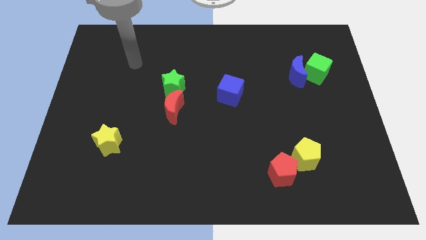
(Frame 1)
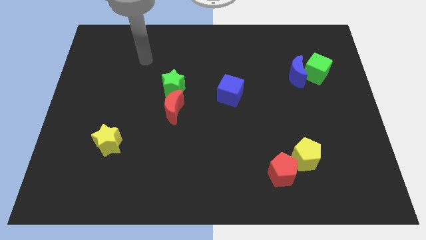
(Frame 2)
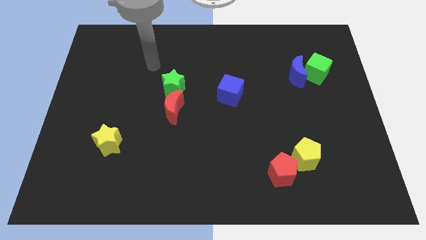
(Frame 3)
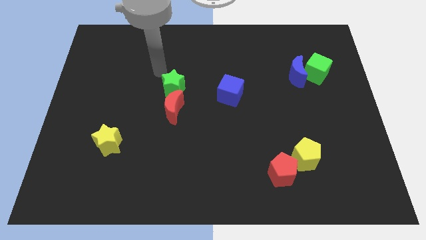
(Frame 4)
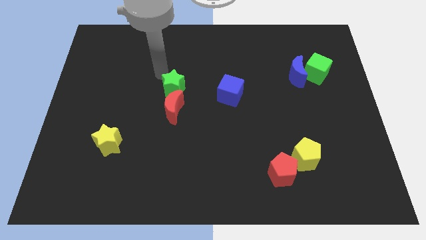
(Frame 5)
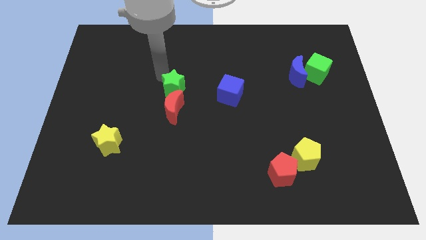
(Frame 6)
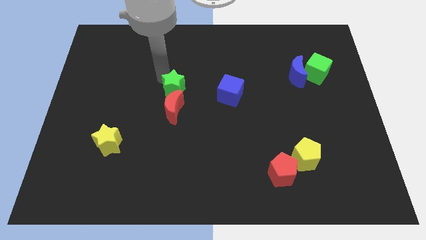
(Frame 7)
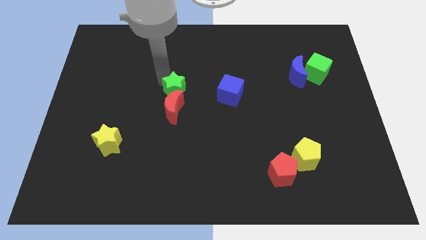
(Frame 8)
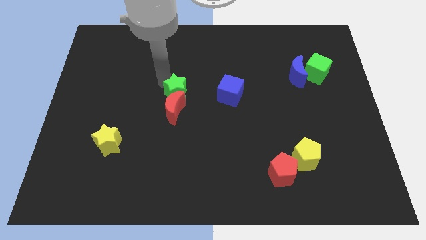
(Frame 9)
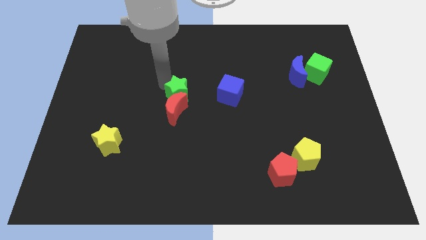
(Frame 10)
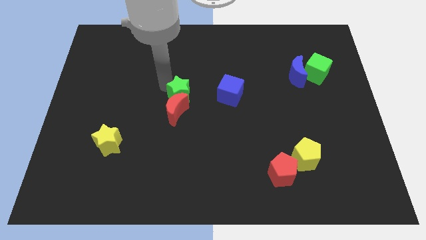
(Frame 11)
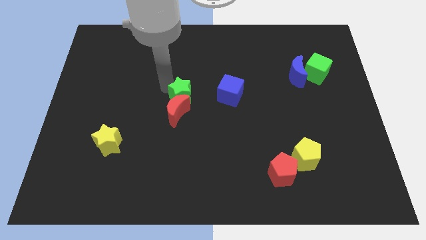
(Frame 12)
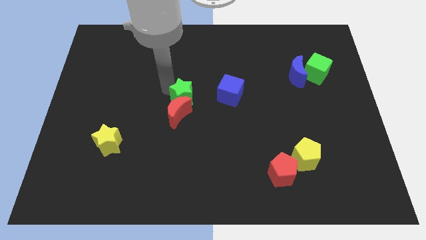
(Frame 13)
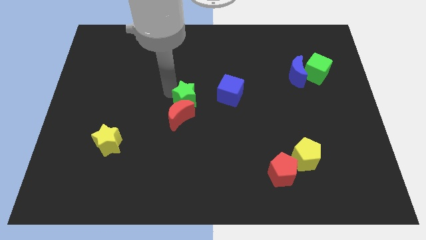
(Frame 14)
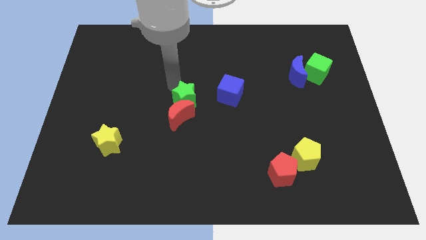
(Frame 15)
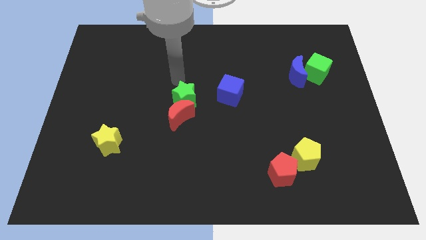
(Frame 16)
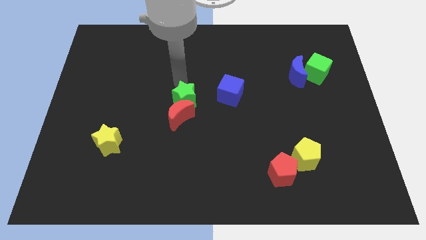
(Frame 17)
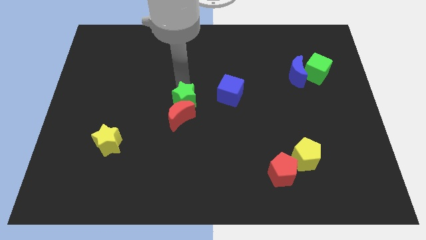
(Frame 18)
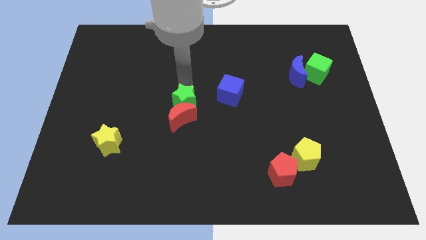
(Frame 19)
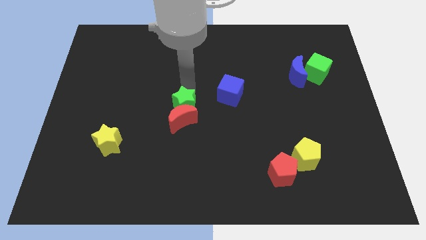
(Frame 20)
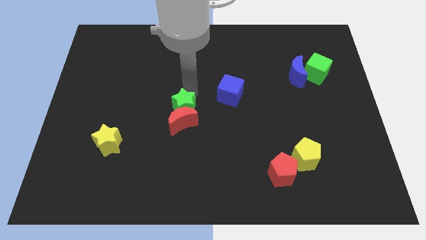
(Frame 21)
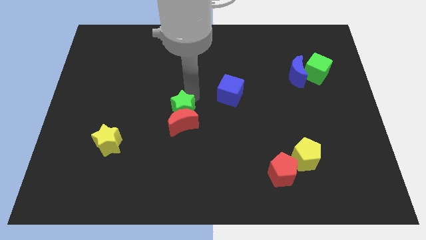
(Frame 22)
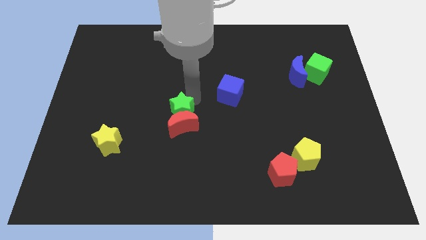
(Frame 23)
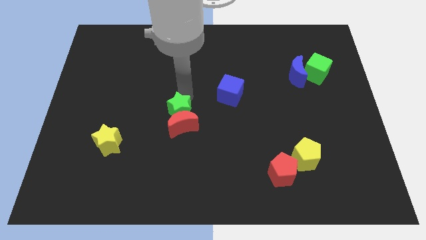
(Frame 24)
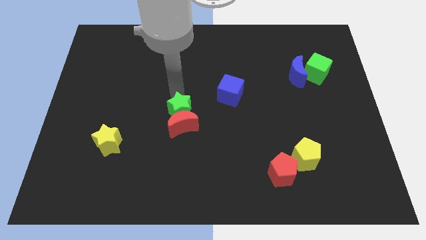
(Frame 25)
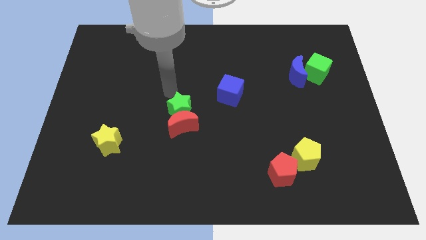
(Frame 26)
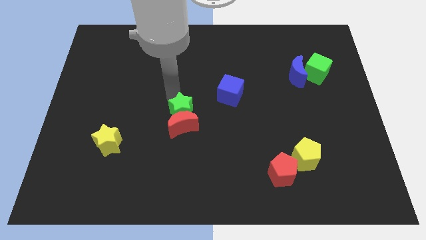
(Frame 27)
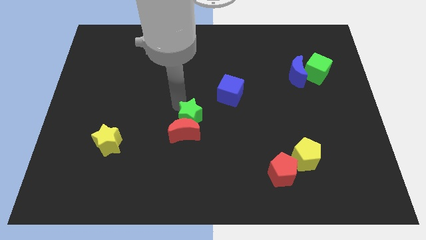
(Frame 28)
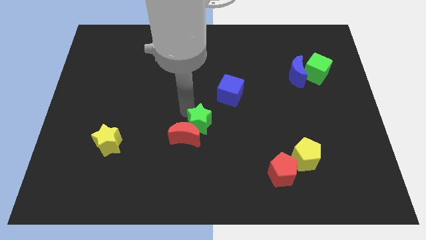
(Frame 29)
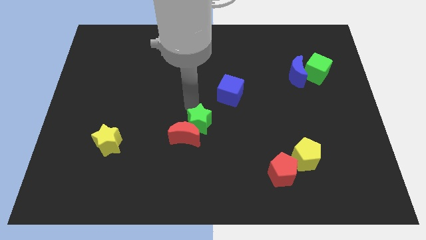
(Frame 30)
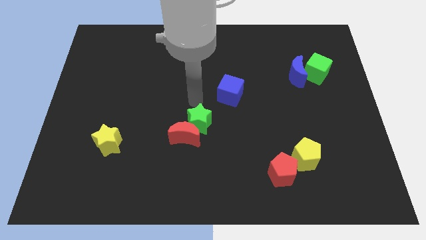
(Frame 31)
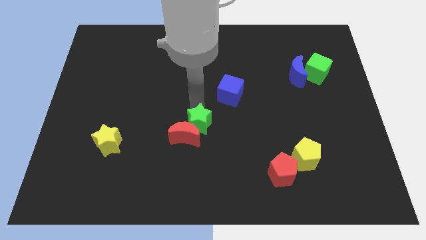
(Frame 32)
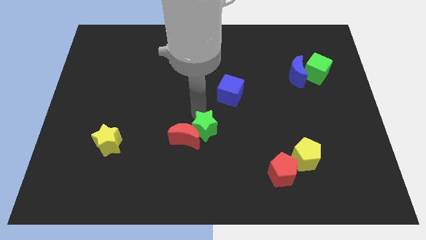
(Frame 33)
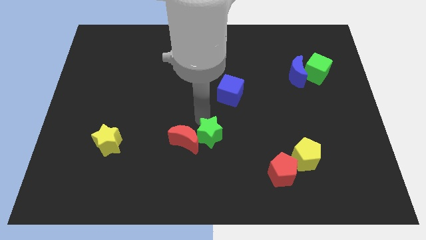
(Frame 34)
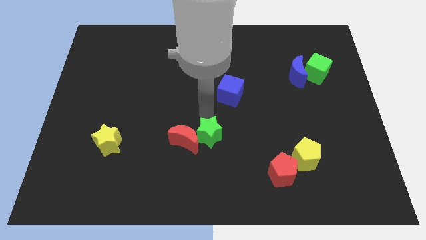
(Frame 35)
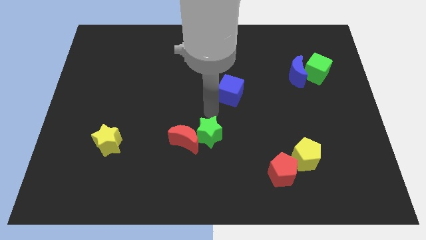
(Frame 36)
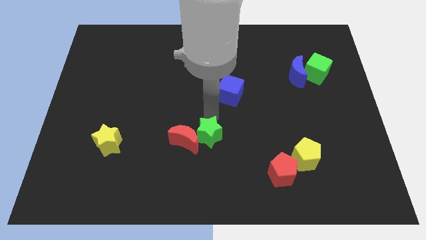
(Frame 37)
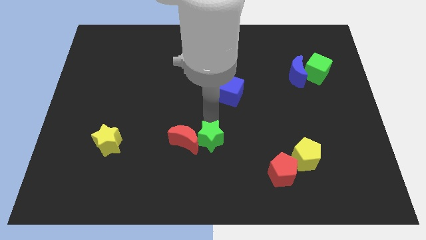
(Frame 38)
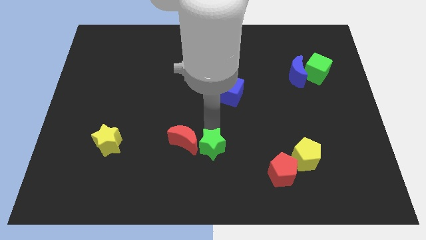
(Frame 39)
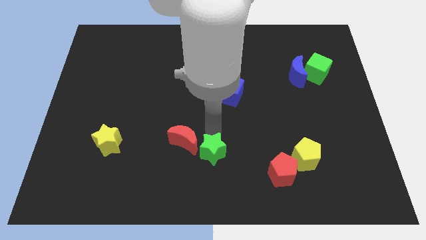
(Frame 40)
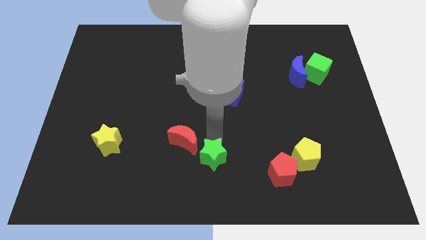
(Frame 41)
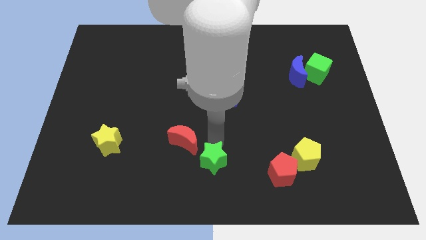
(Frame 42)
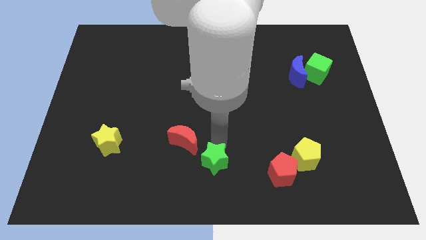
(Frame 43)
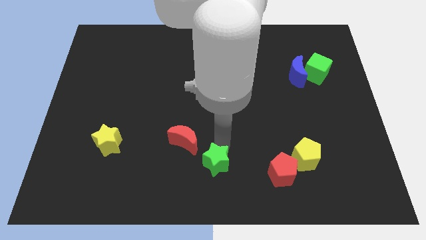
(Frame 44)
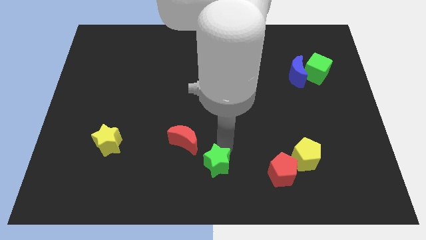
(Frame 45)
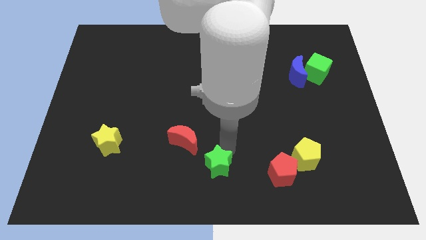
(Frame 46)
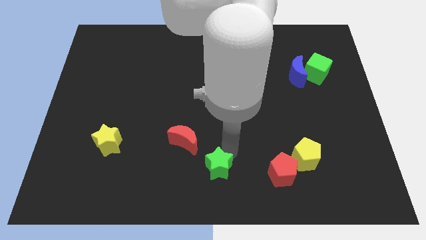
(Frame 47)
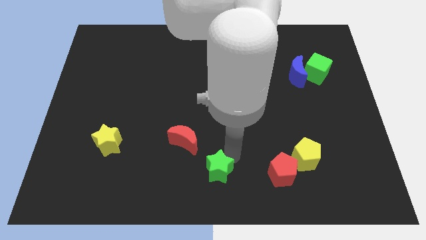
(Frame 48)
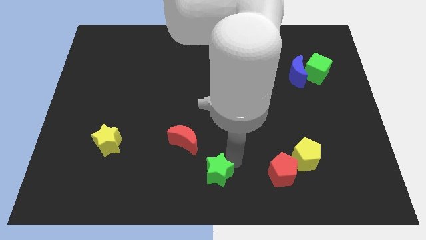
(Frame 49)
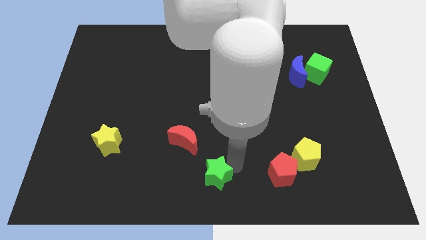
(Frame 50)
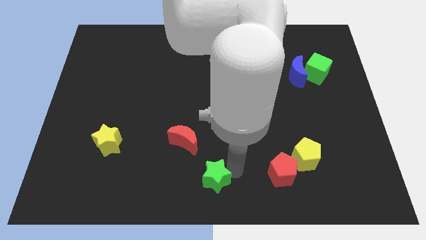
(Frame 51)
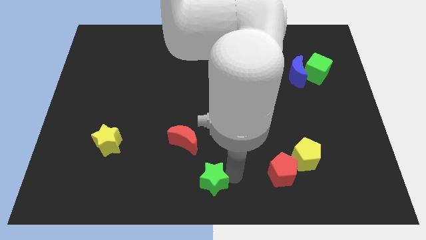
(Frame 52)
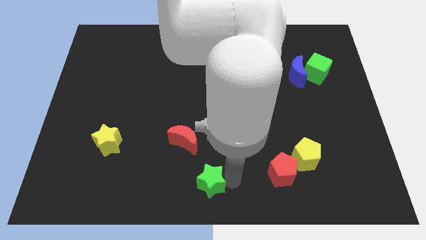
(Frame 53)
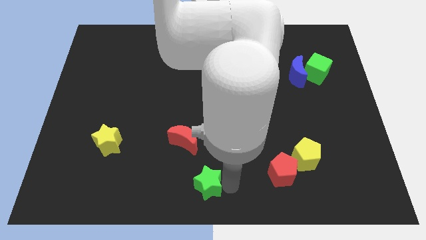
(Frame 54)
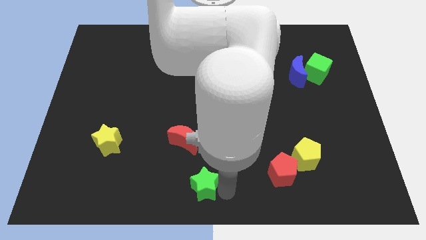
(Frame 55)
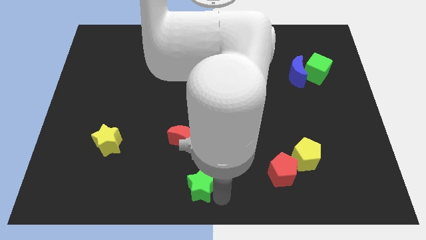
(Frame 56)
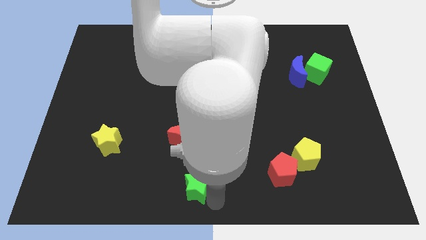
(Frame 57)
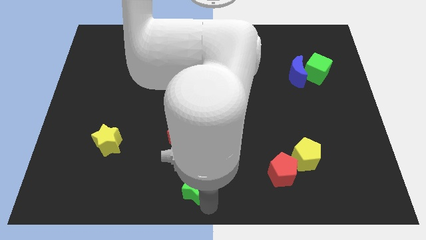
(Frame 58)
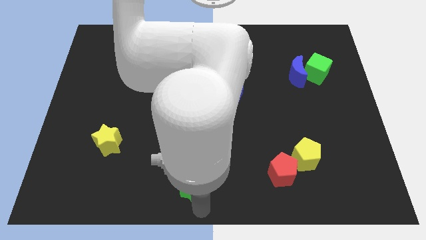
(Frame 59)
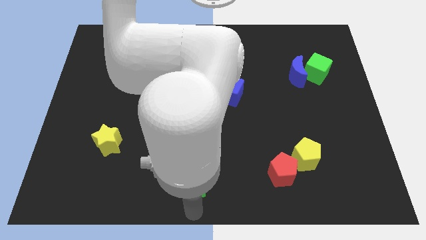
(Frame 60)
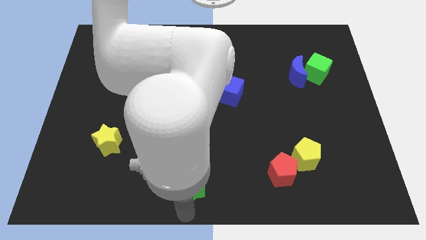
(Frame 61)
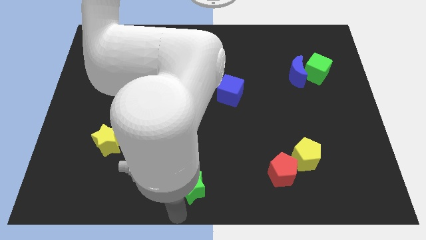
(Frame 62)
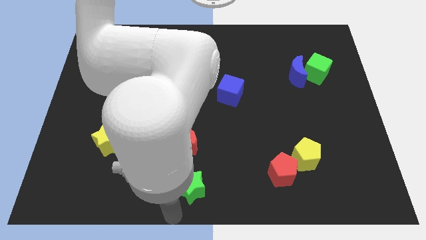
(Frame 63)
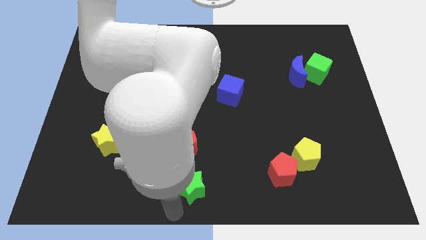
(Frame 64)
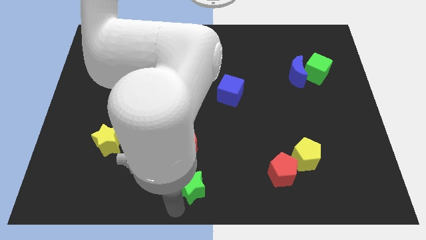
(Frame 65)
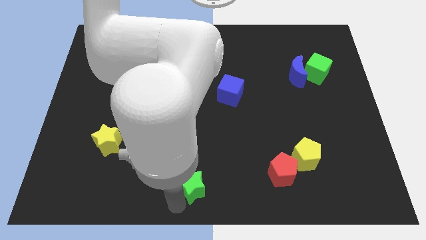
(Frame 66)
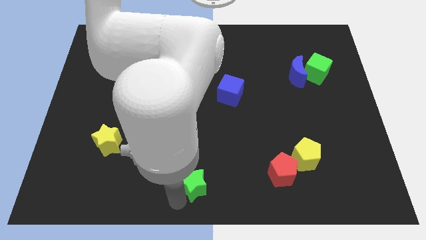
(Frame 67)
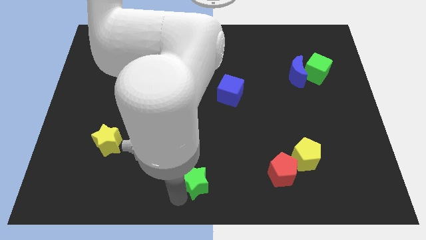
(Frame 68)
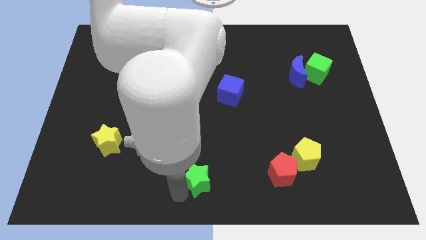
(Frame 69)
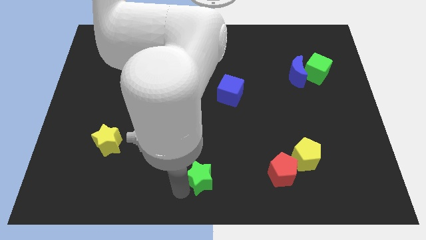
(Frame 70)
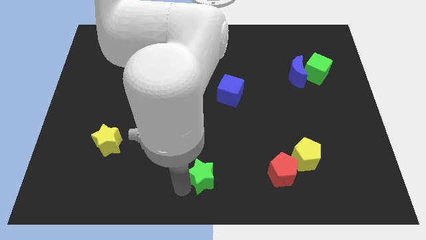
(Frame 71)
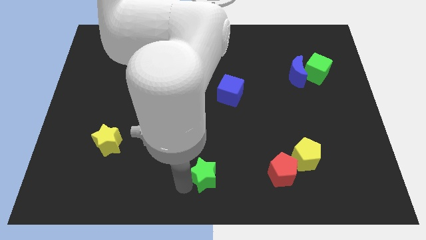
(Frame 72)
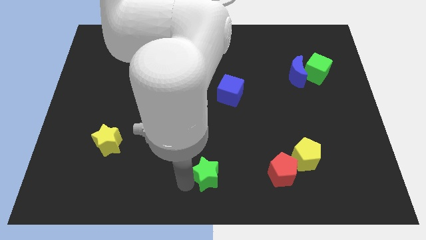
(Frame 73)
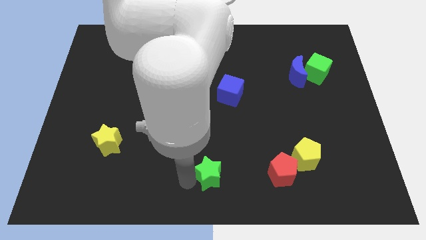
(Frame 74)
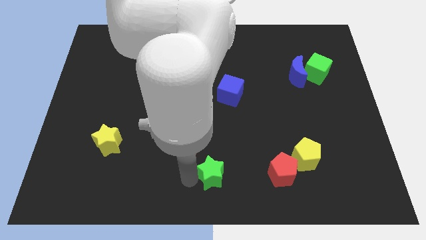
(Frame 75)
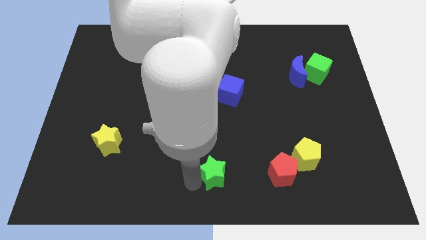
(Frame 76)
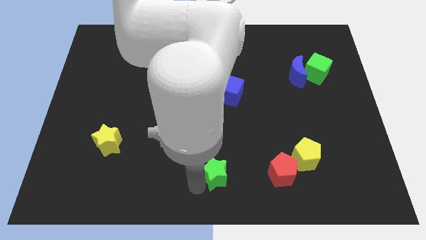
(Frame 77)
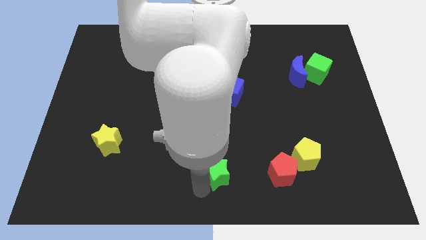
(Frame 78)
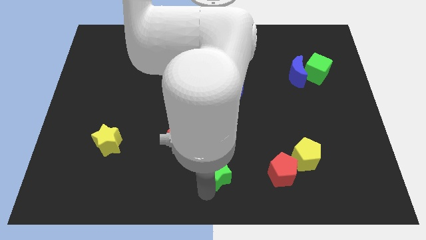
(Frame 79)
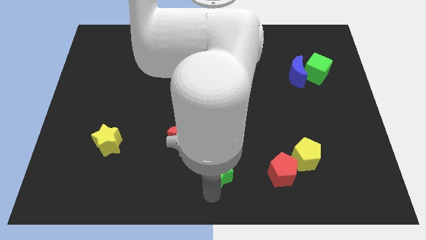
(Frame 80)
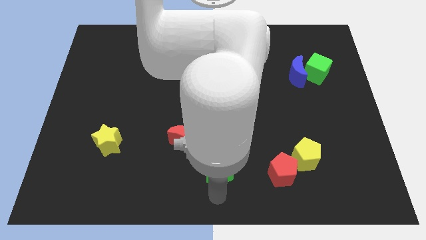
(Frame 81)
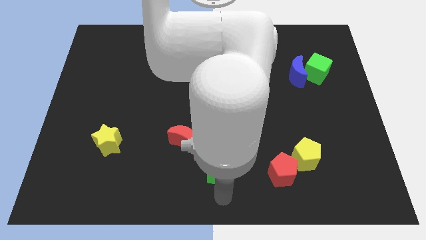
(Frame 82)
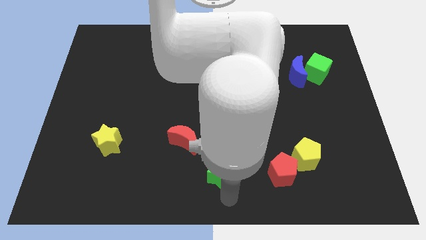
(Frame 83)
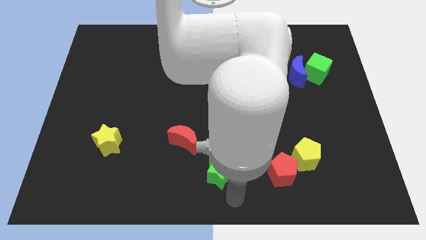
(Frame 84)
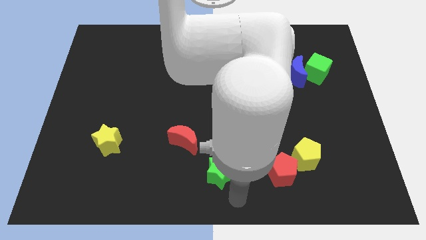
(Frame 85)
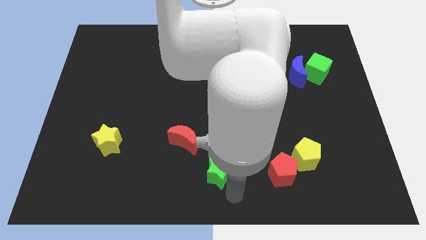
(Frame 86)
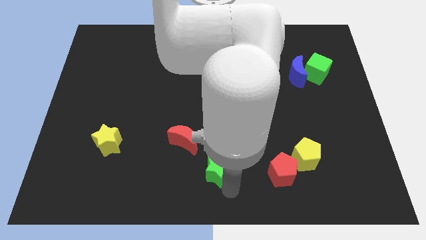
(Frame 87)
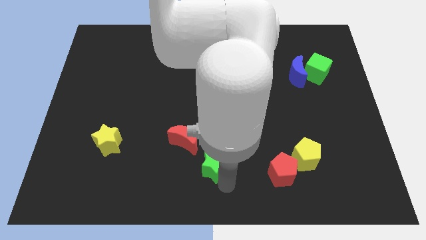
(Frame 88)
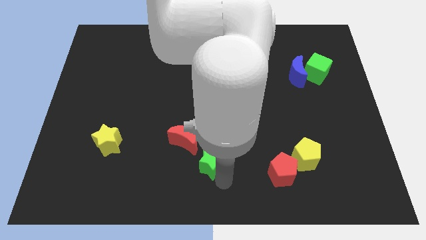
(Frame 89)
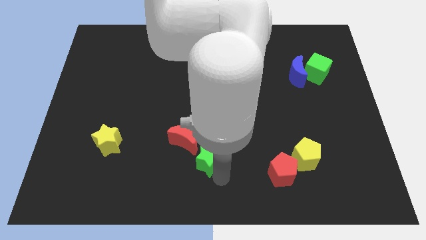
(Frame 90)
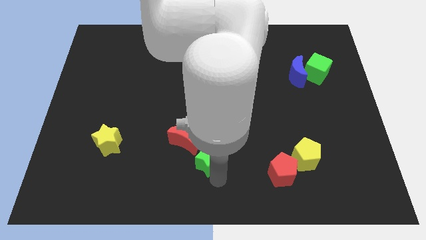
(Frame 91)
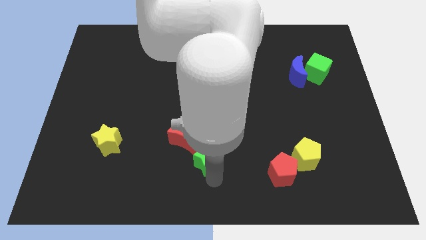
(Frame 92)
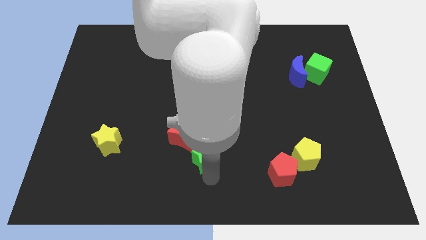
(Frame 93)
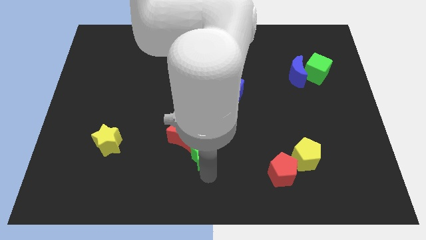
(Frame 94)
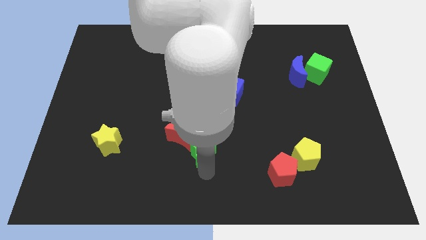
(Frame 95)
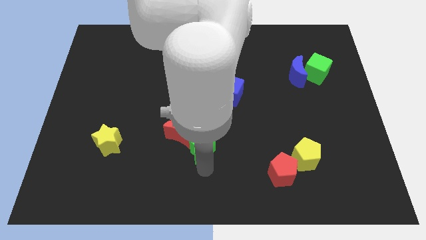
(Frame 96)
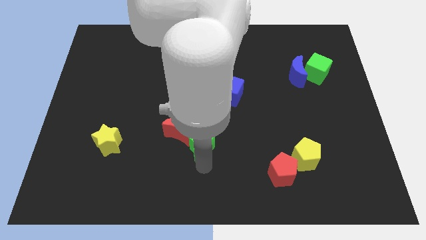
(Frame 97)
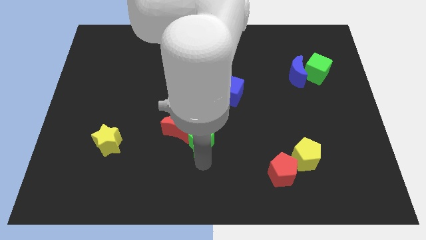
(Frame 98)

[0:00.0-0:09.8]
push the green star diagonally down and to the right of the red moon
